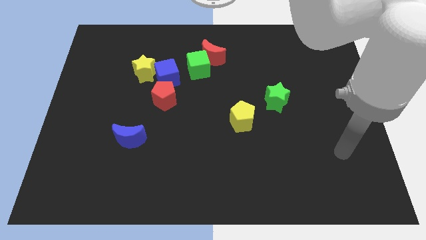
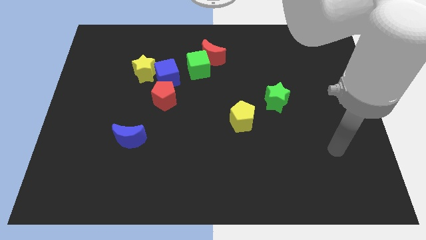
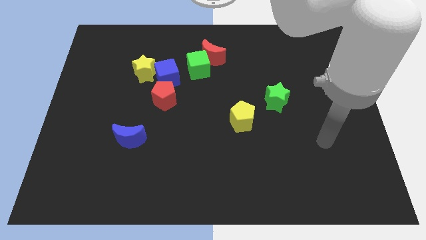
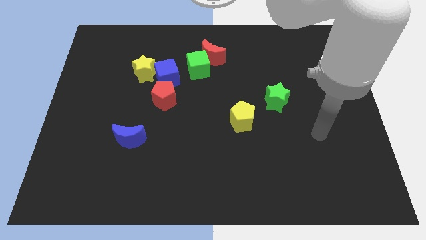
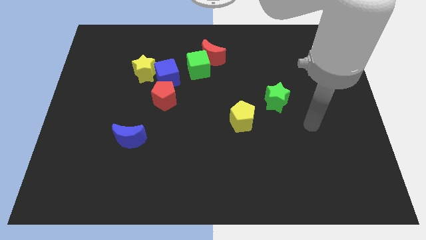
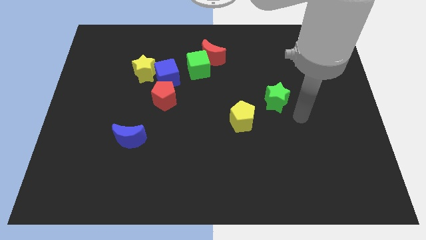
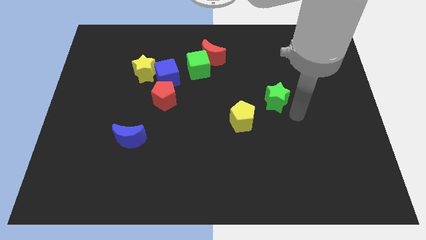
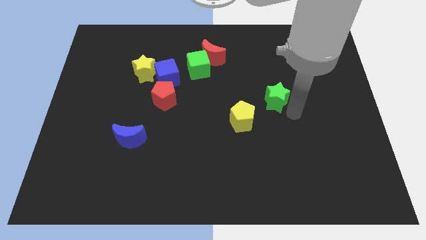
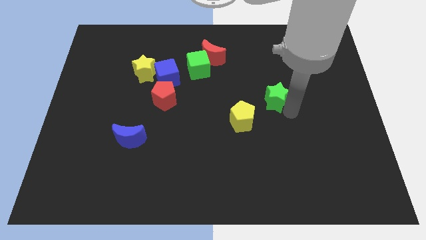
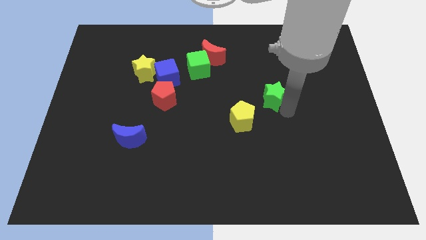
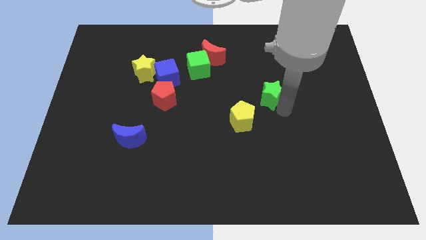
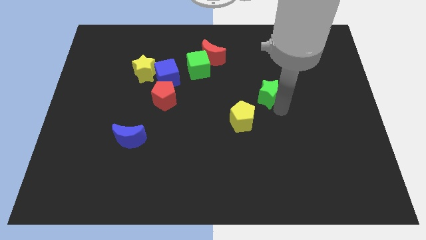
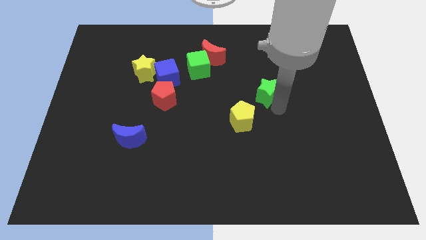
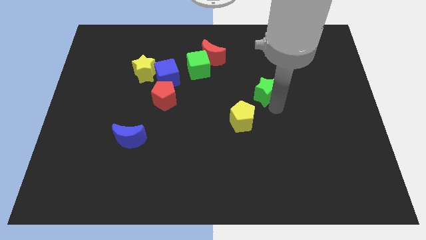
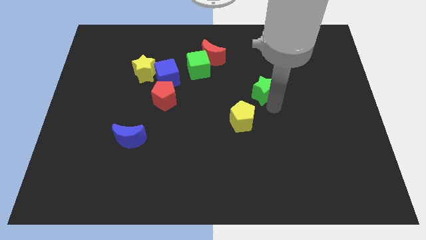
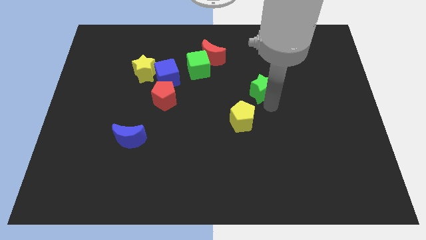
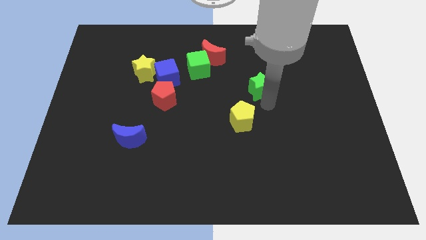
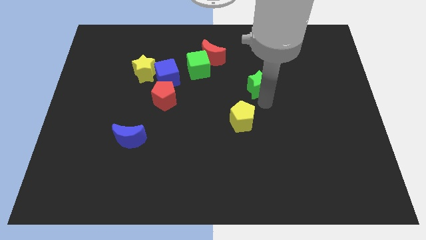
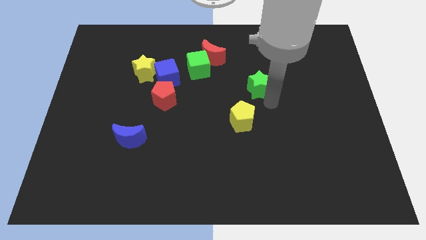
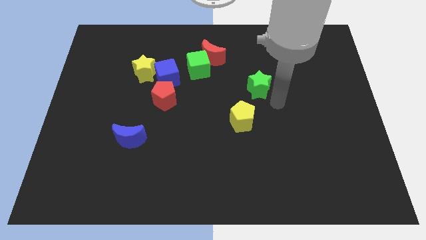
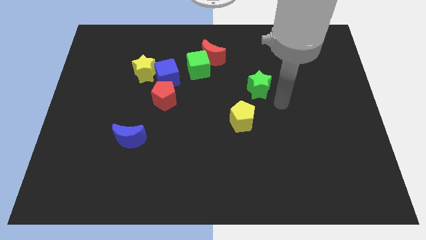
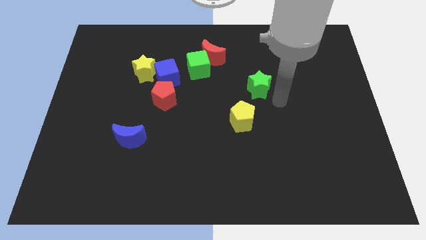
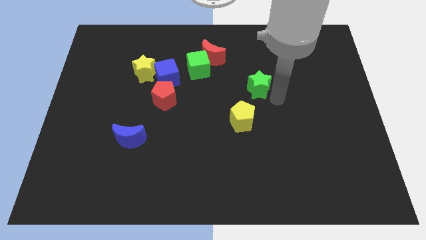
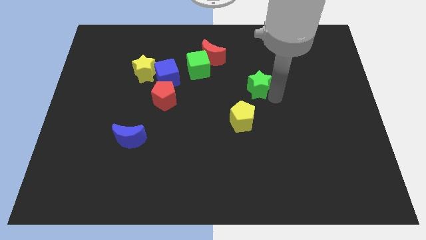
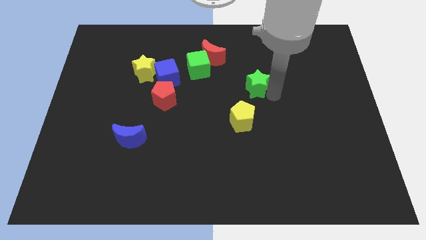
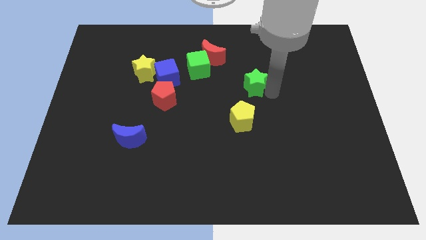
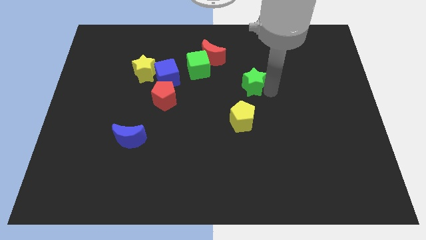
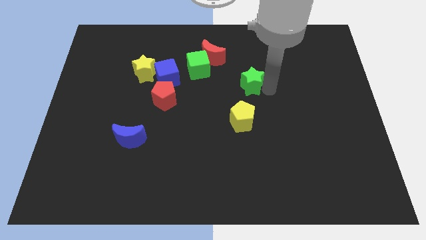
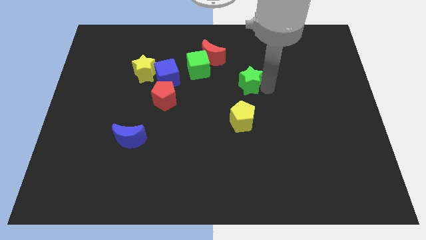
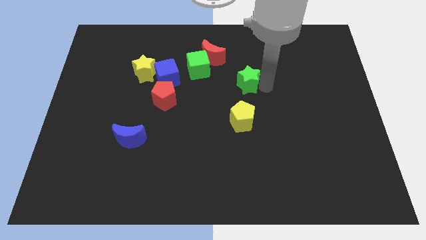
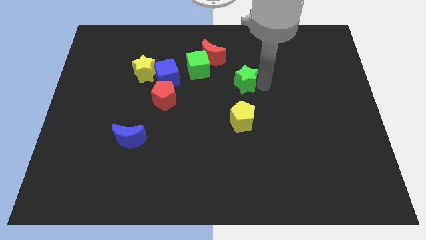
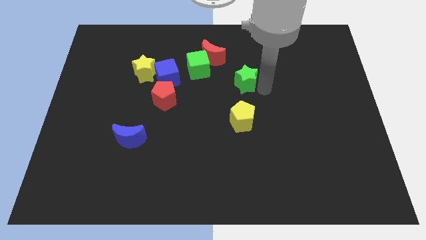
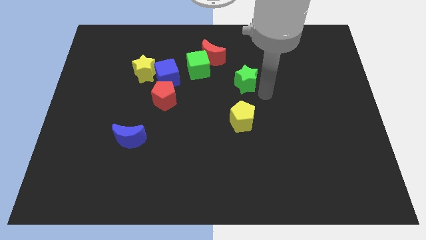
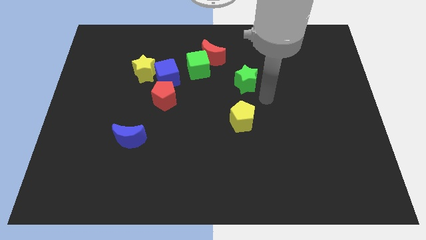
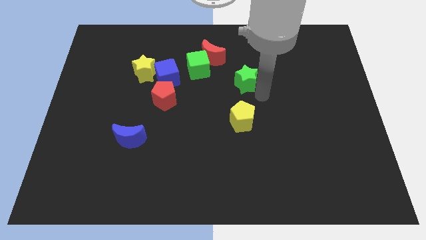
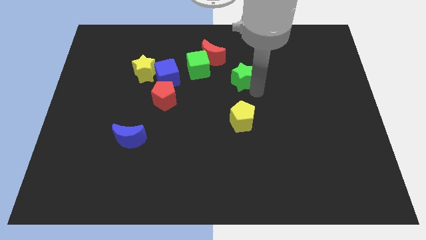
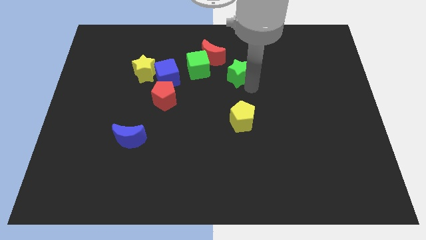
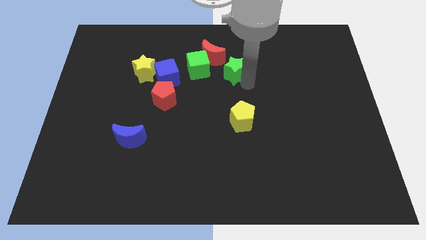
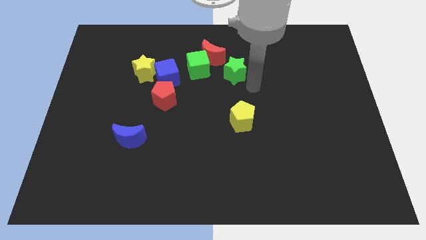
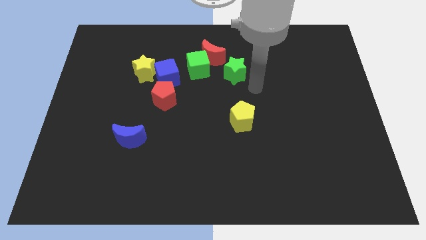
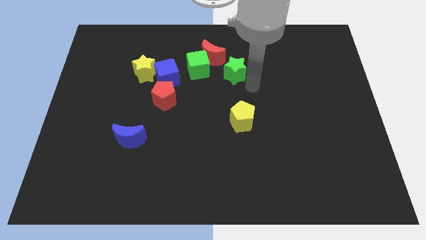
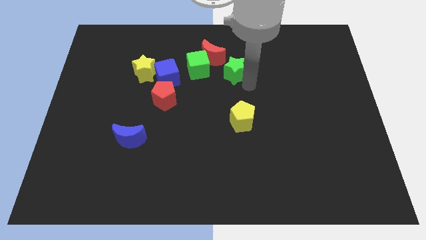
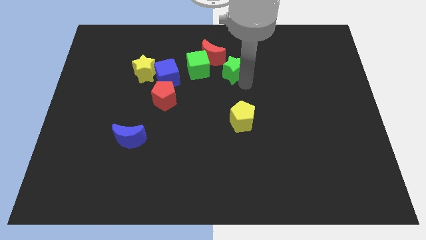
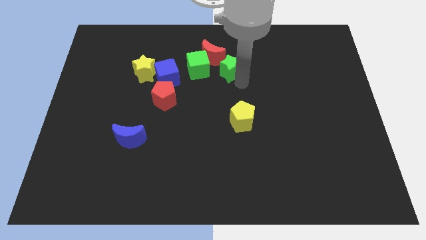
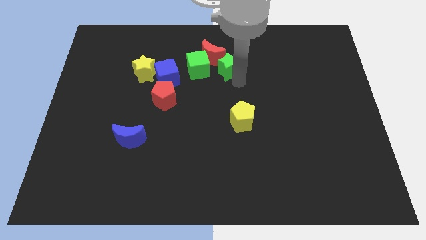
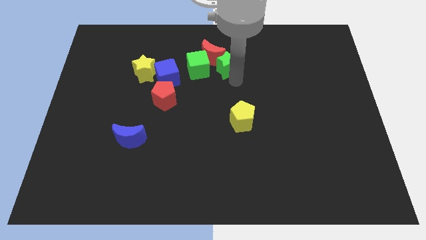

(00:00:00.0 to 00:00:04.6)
put the green star close to the red moon

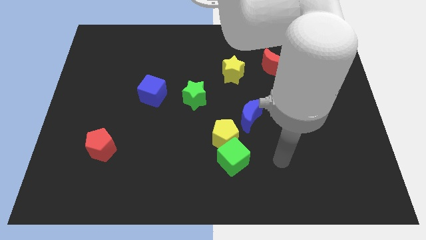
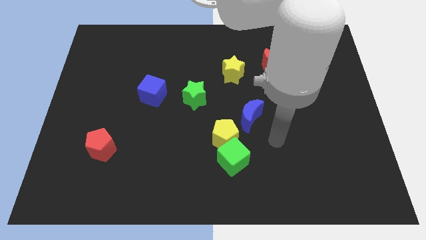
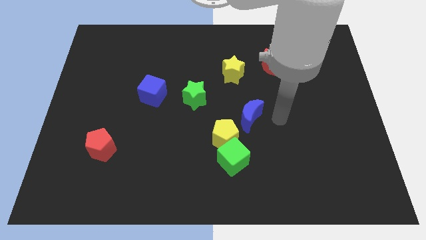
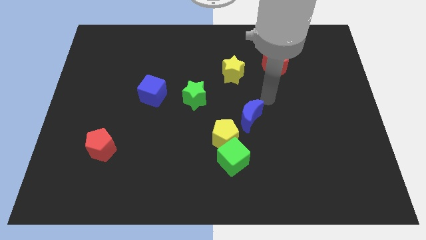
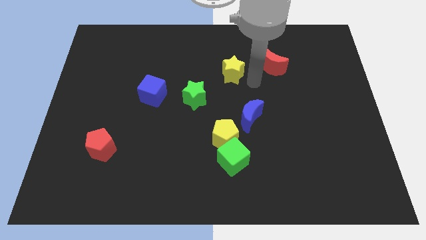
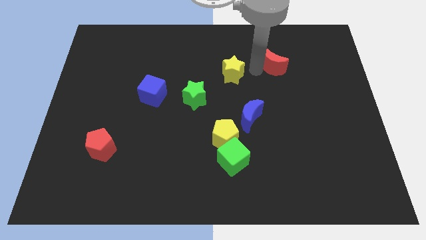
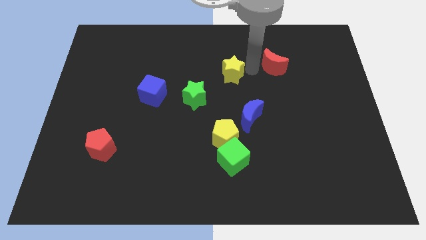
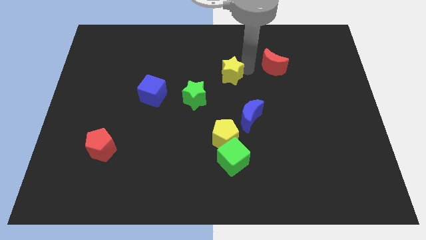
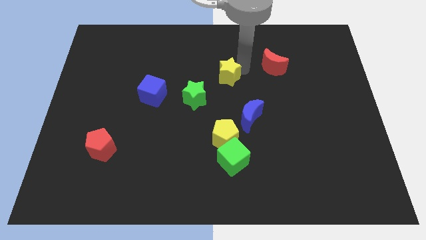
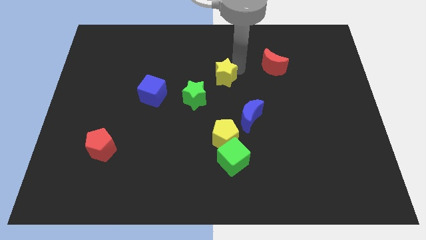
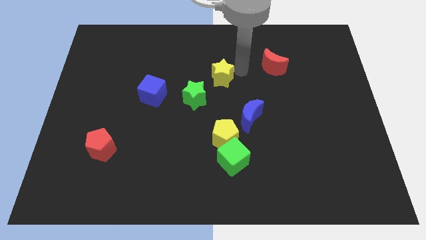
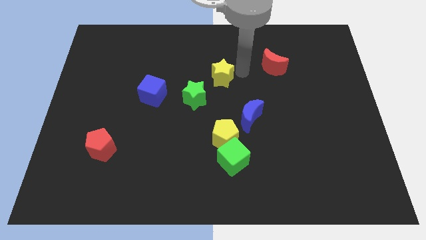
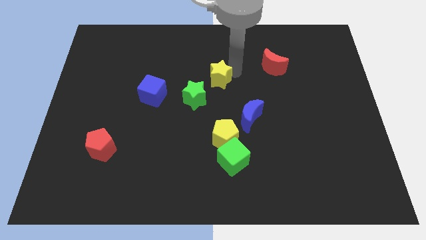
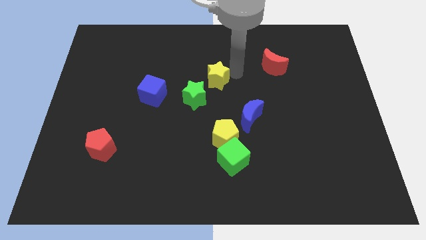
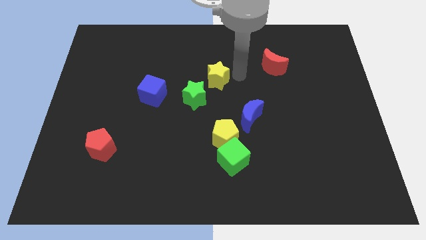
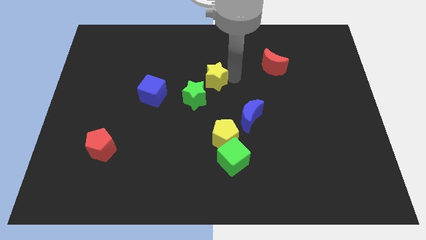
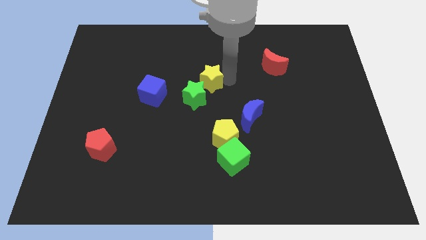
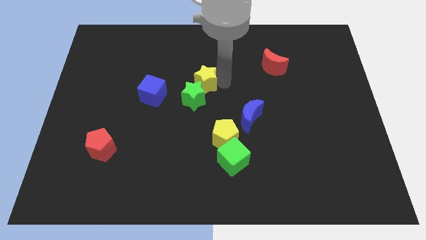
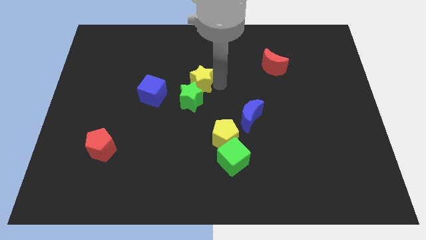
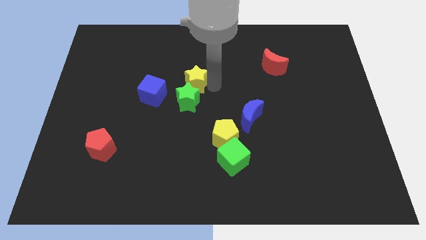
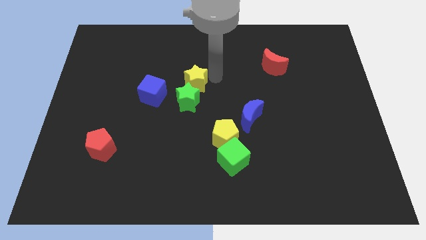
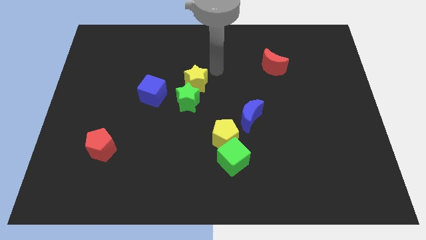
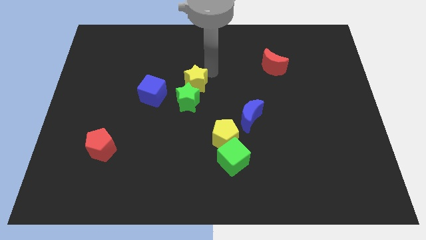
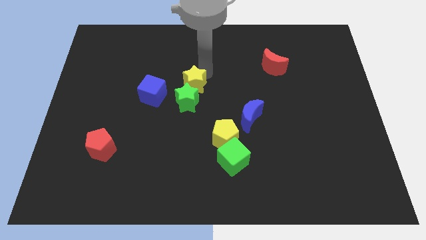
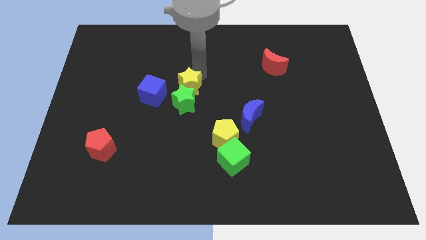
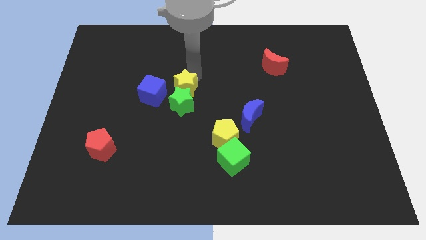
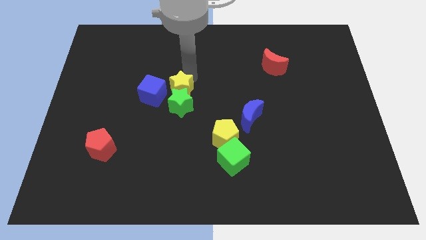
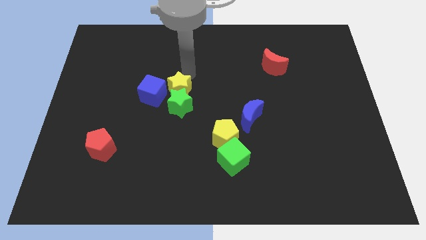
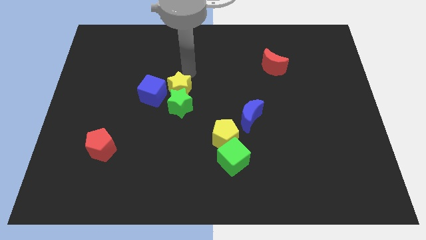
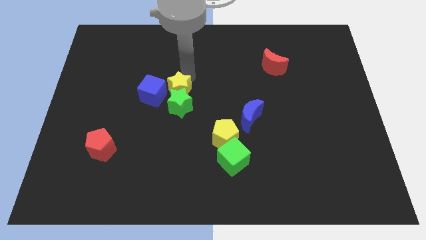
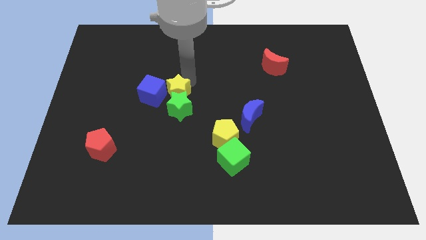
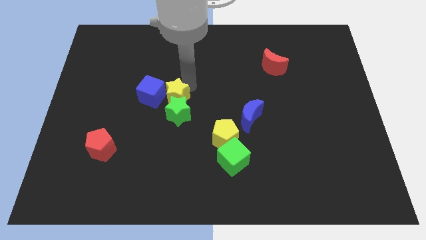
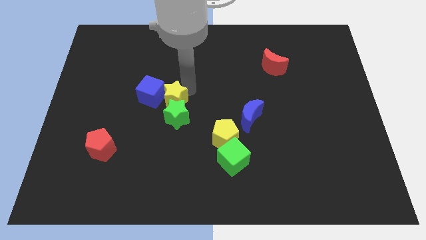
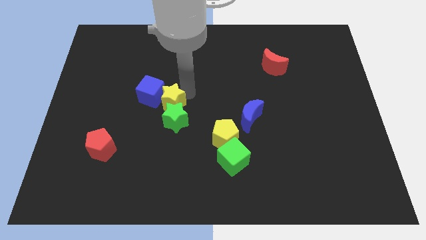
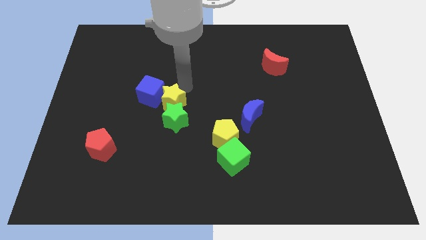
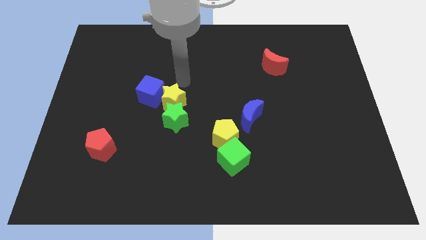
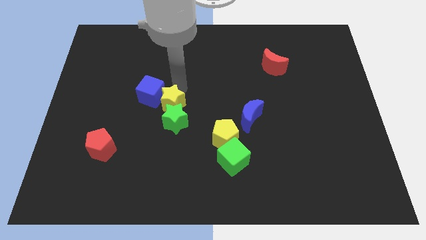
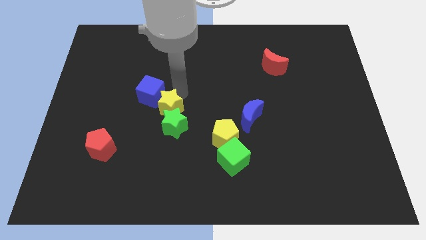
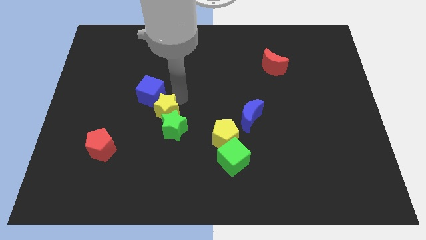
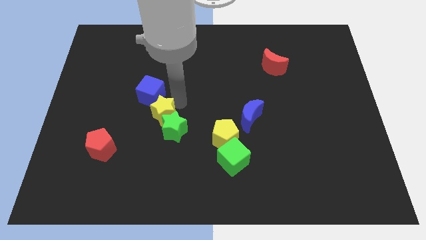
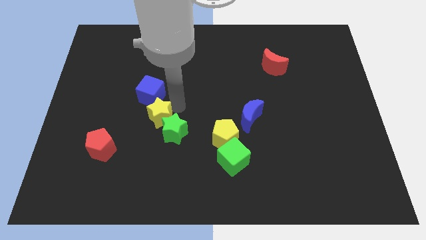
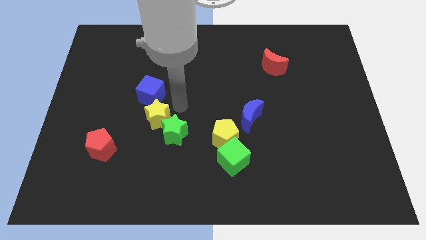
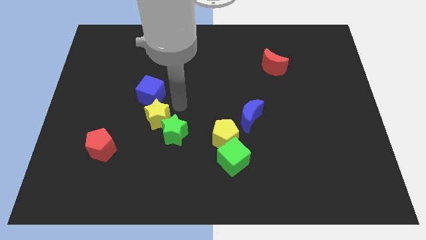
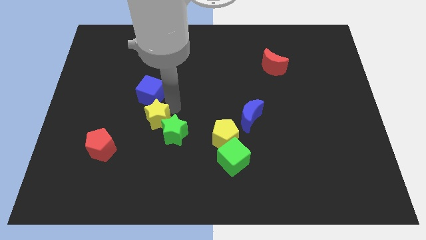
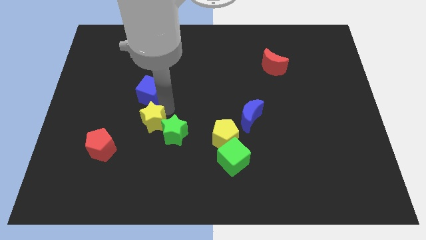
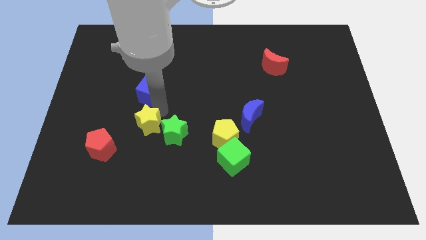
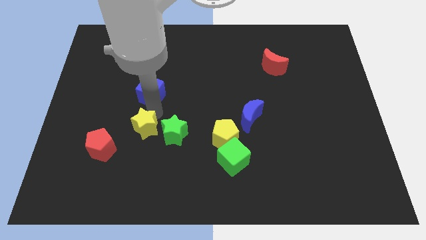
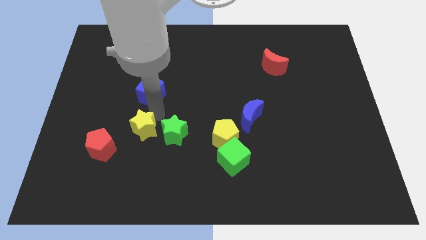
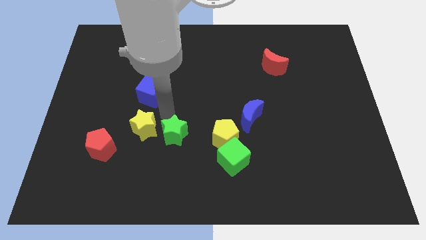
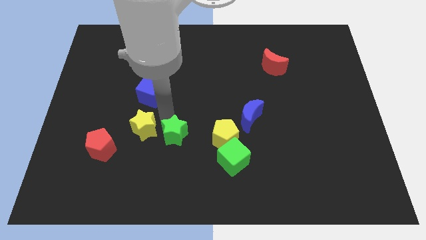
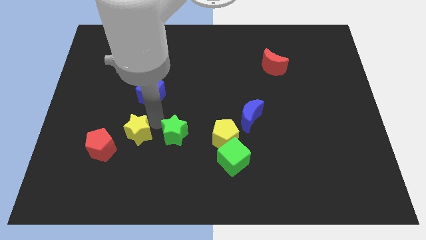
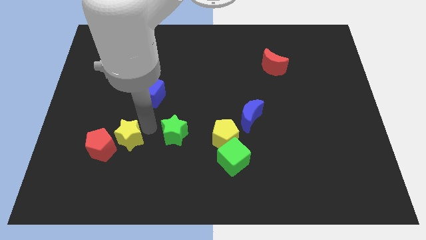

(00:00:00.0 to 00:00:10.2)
put the yellow star to the red pentagon
